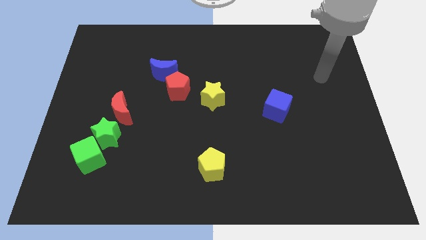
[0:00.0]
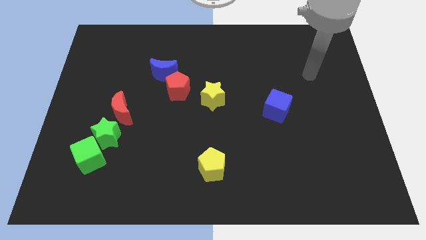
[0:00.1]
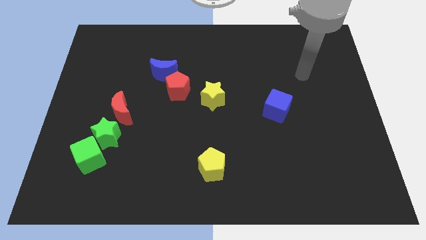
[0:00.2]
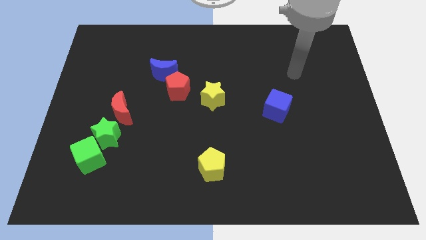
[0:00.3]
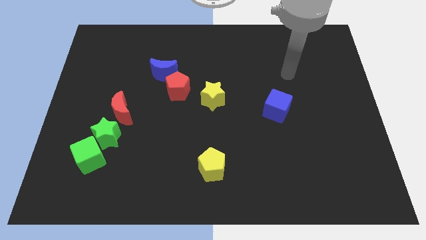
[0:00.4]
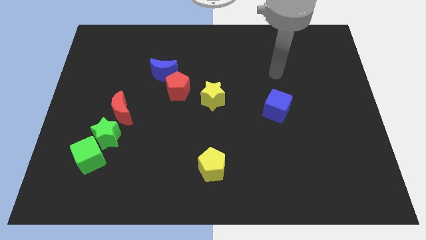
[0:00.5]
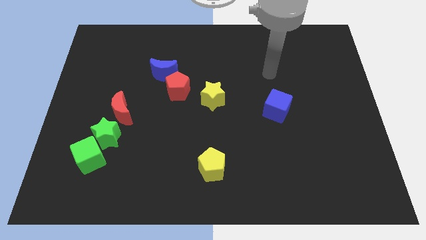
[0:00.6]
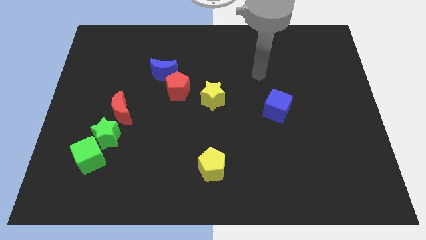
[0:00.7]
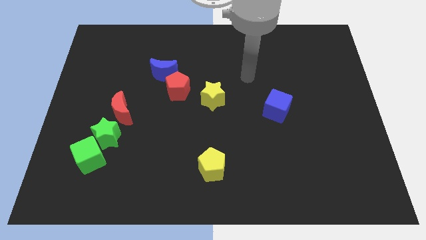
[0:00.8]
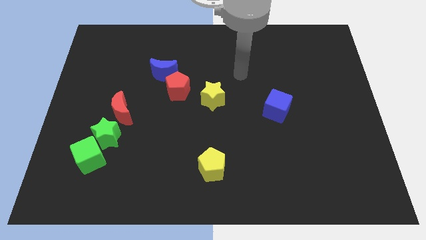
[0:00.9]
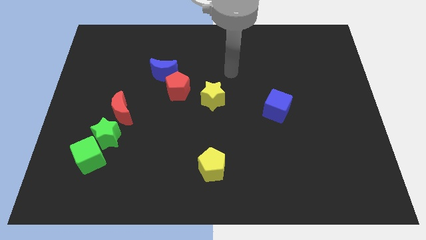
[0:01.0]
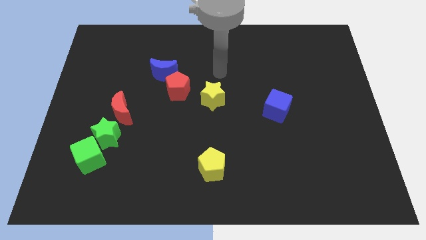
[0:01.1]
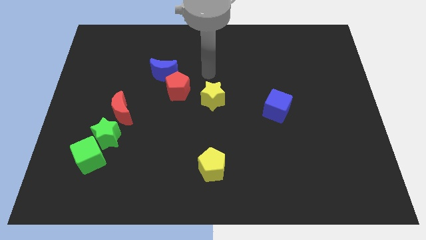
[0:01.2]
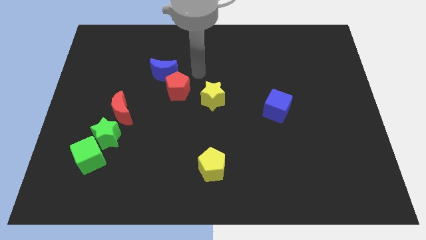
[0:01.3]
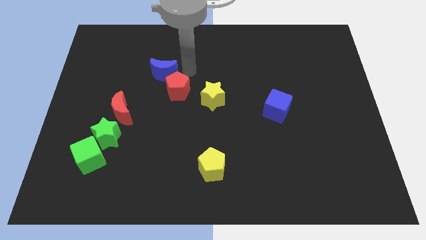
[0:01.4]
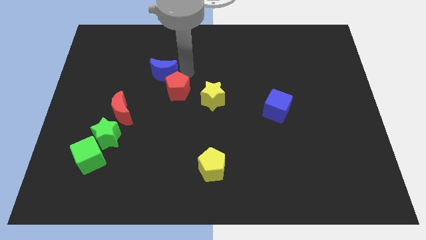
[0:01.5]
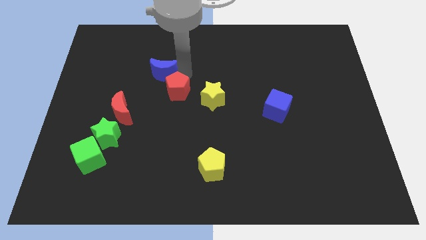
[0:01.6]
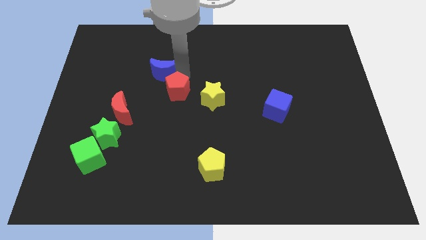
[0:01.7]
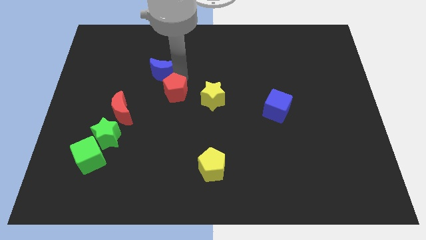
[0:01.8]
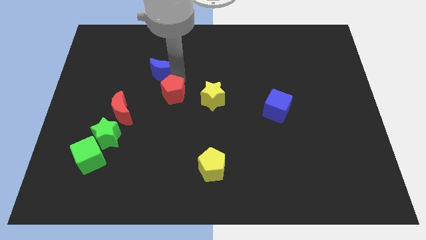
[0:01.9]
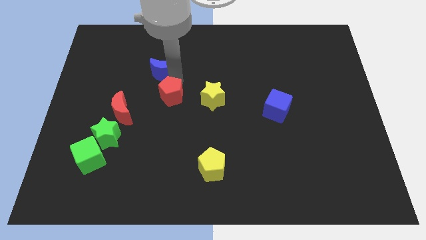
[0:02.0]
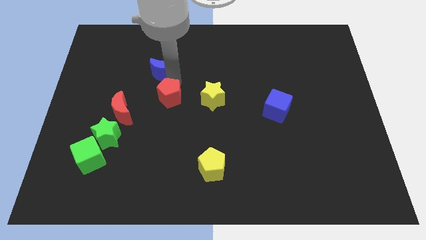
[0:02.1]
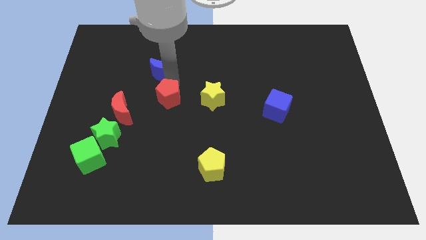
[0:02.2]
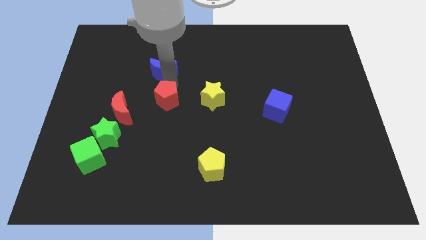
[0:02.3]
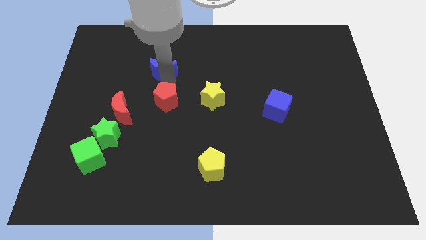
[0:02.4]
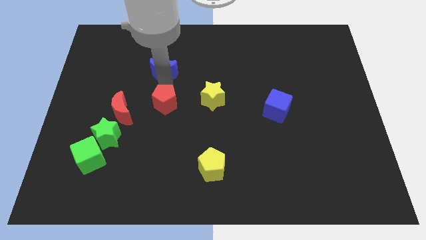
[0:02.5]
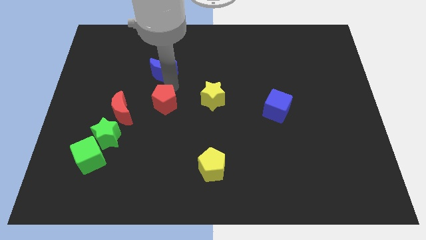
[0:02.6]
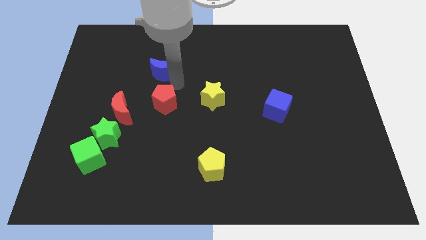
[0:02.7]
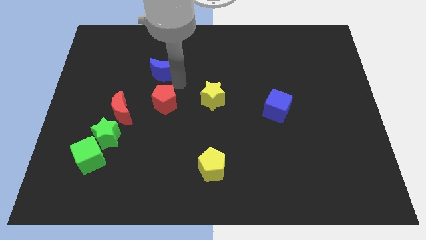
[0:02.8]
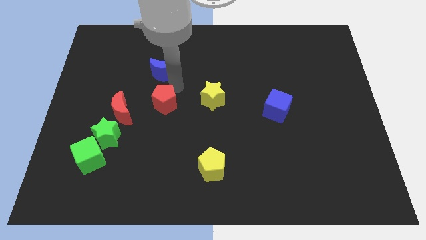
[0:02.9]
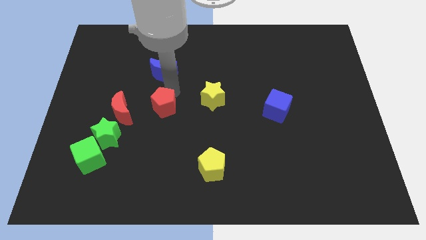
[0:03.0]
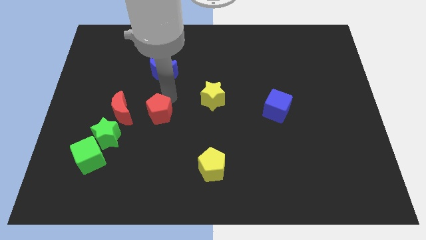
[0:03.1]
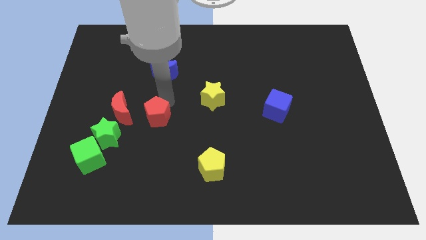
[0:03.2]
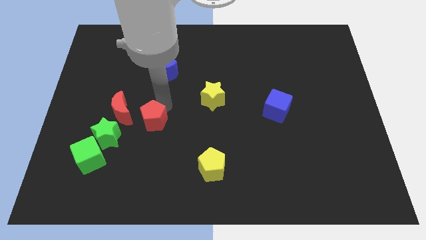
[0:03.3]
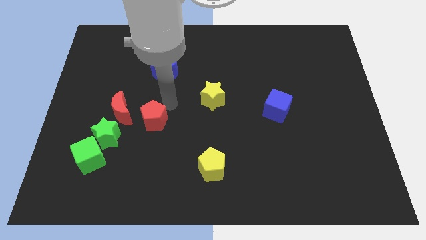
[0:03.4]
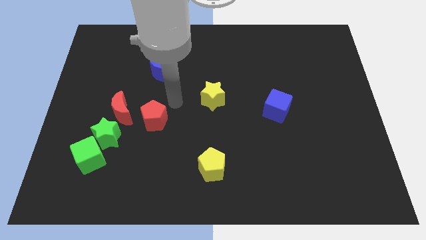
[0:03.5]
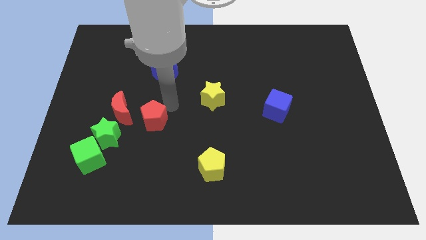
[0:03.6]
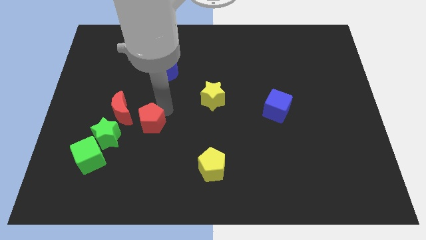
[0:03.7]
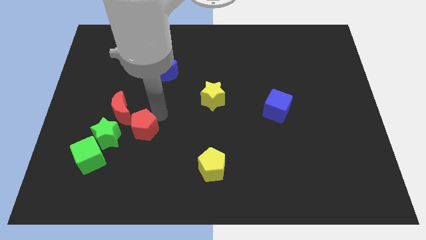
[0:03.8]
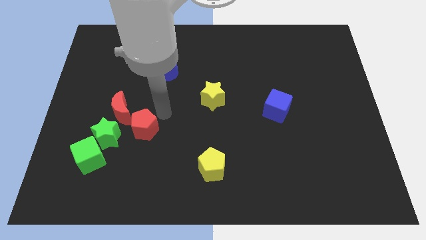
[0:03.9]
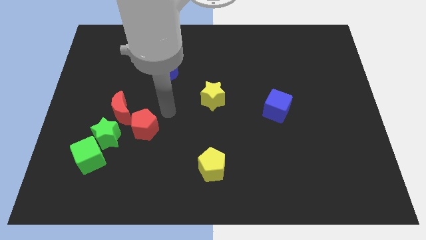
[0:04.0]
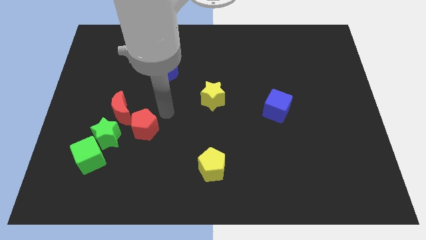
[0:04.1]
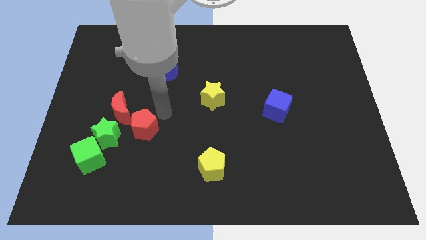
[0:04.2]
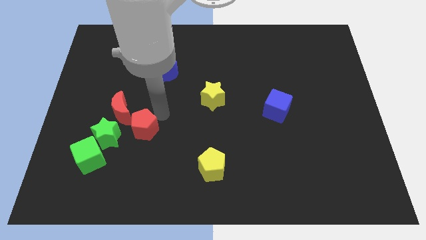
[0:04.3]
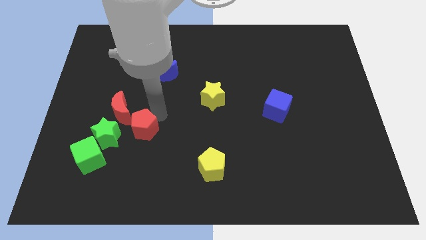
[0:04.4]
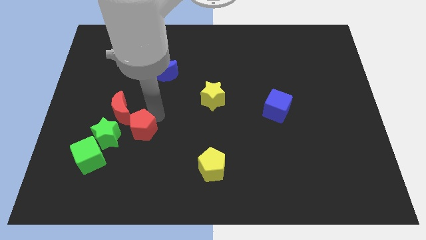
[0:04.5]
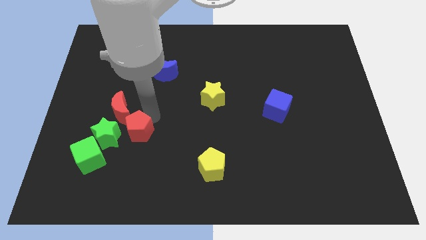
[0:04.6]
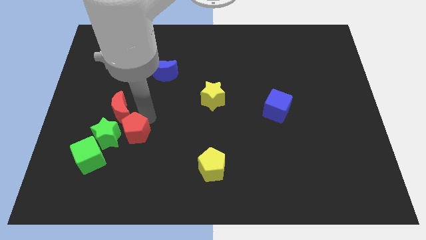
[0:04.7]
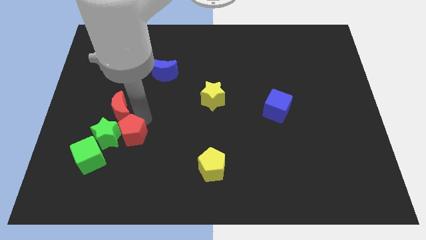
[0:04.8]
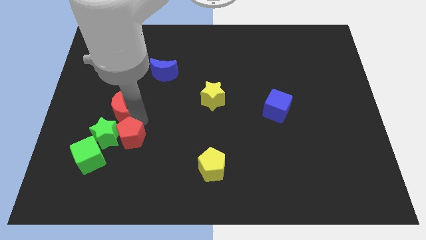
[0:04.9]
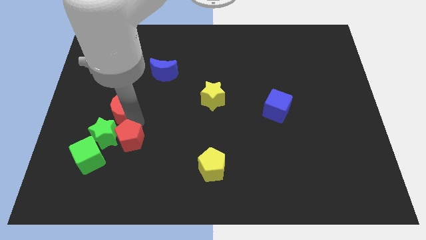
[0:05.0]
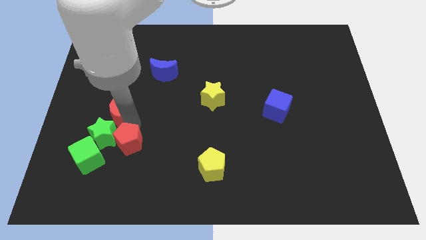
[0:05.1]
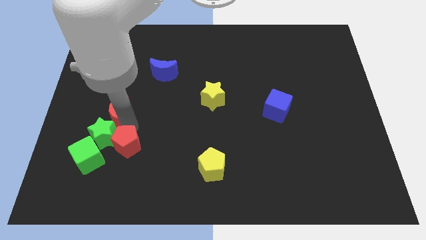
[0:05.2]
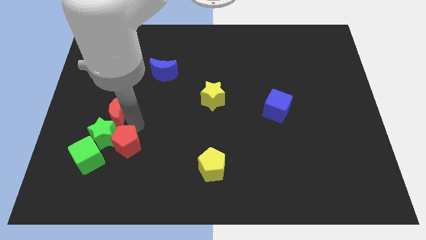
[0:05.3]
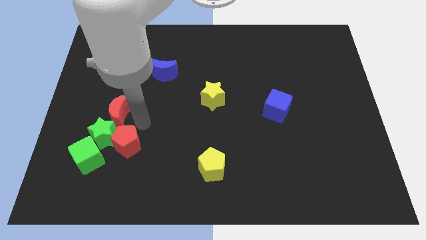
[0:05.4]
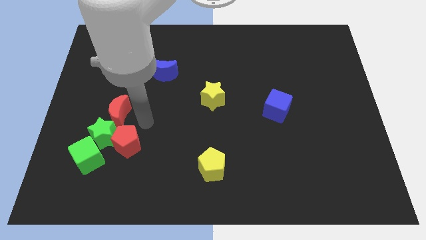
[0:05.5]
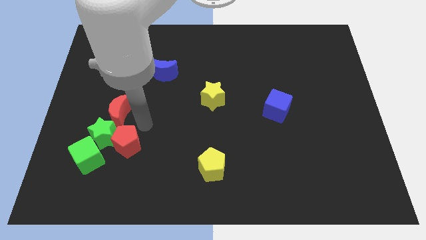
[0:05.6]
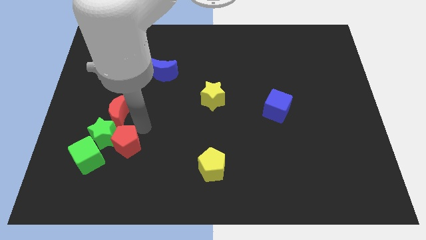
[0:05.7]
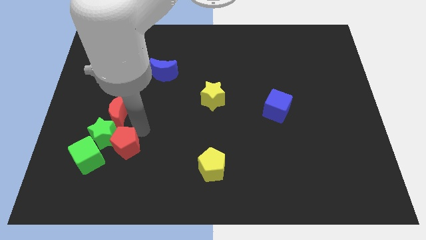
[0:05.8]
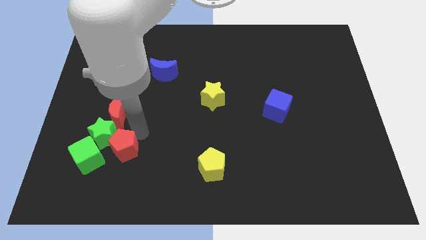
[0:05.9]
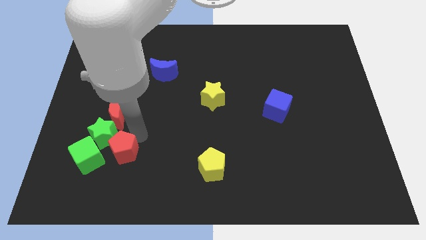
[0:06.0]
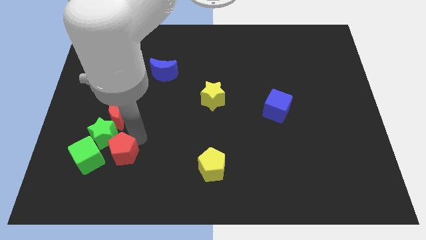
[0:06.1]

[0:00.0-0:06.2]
move the red pentagon to the bottom side of the green star

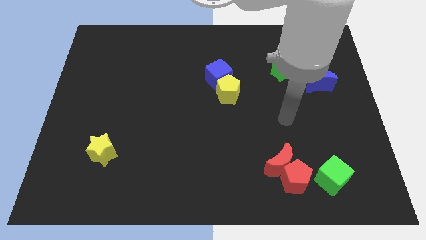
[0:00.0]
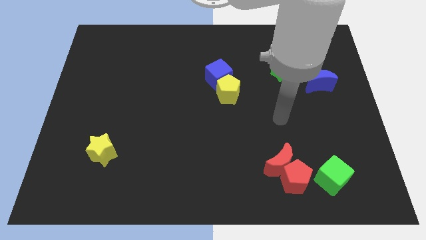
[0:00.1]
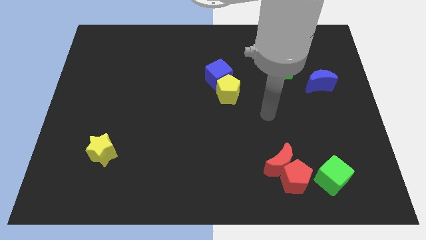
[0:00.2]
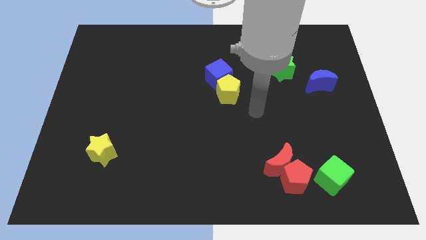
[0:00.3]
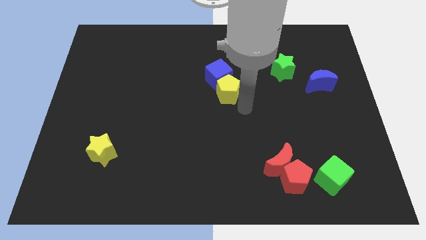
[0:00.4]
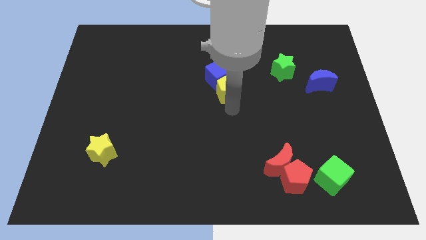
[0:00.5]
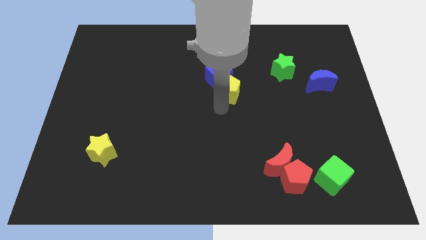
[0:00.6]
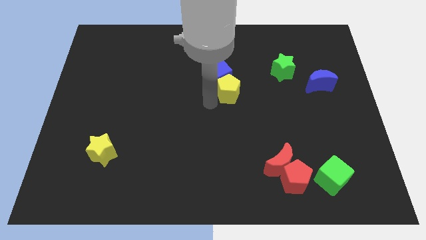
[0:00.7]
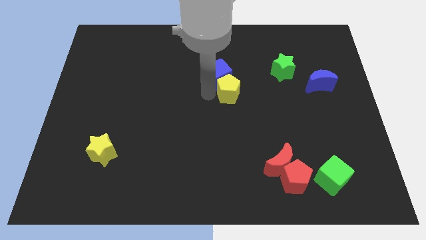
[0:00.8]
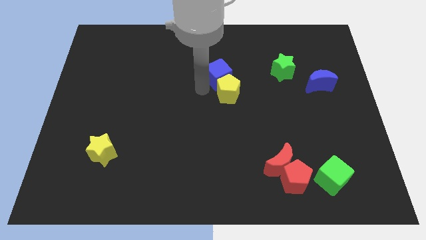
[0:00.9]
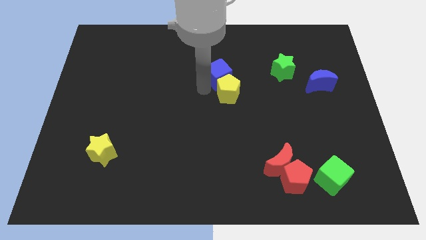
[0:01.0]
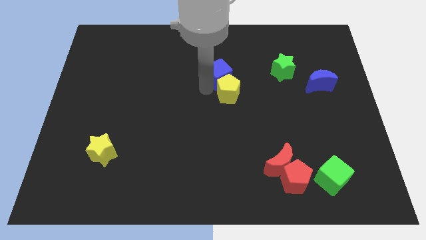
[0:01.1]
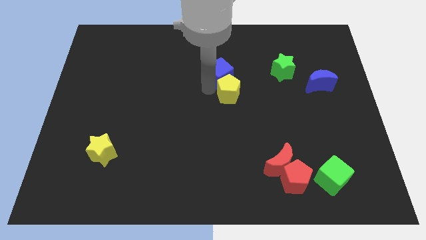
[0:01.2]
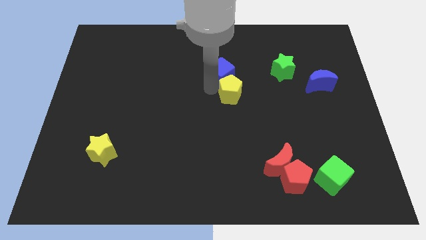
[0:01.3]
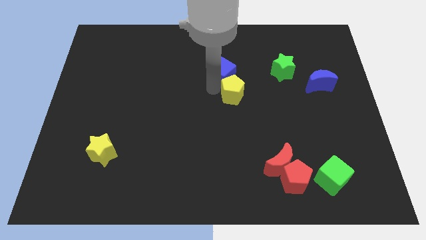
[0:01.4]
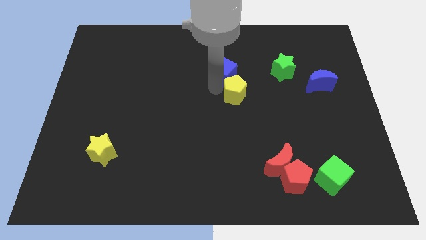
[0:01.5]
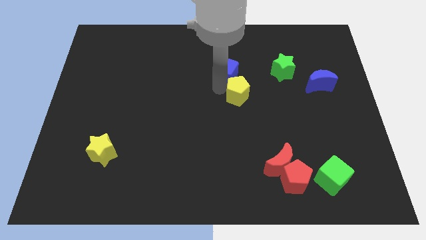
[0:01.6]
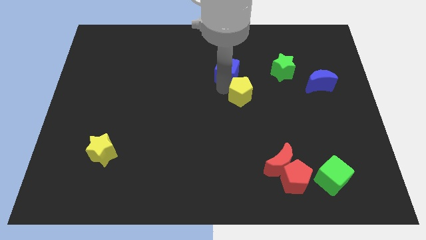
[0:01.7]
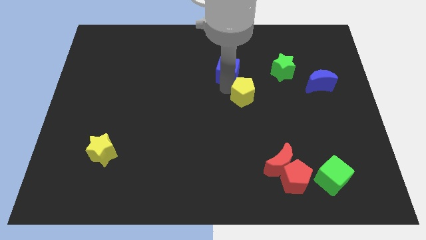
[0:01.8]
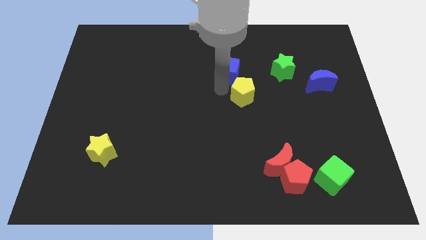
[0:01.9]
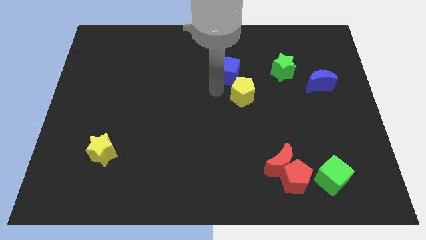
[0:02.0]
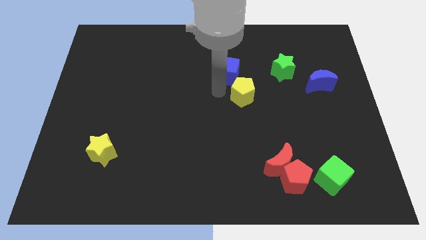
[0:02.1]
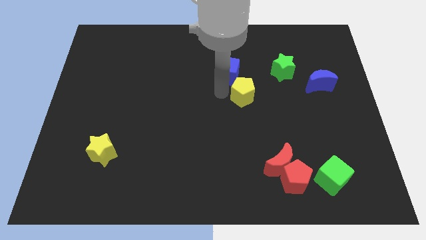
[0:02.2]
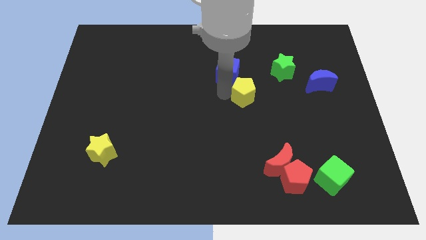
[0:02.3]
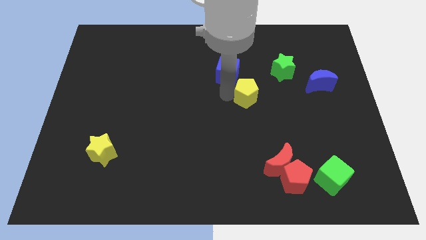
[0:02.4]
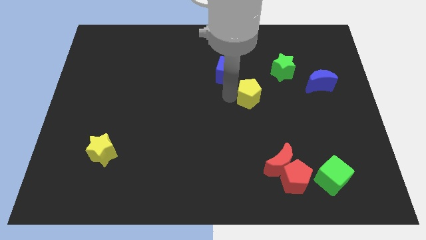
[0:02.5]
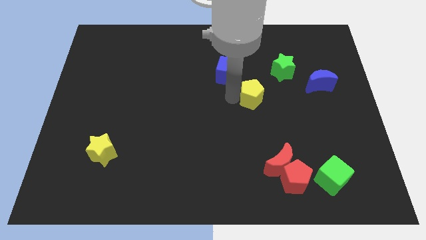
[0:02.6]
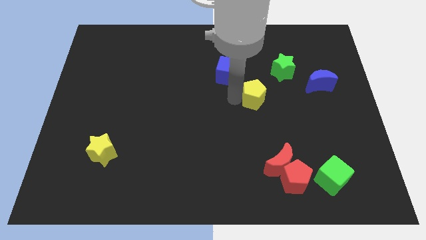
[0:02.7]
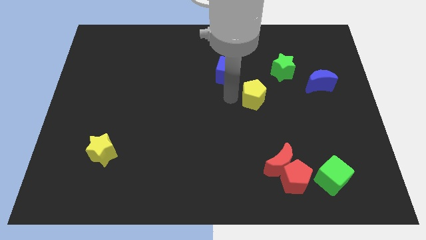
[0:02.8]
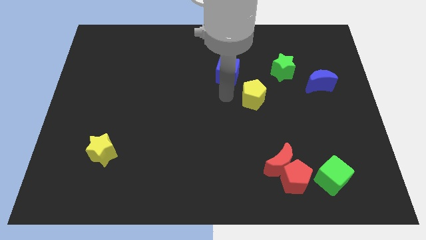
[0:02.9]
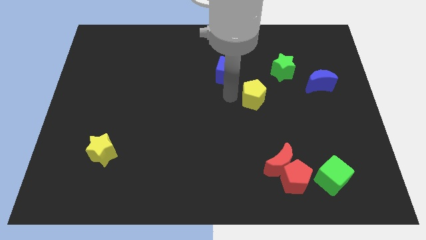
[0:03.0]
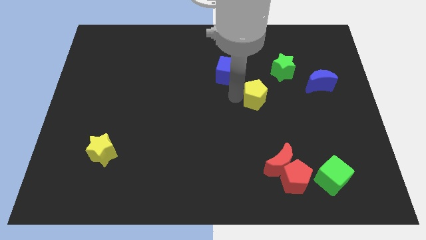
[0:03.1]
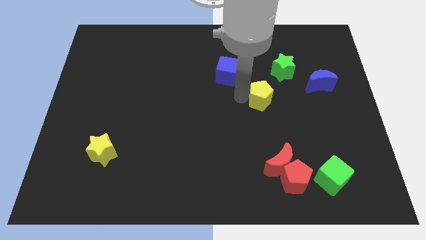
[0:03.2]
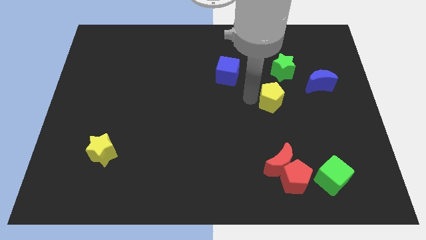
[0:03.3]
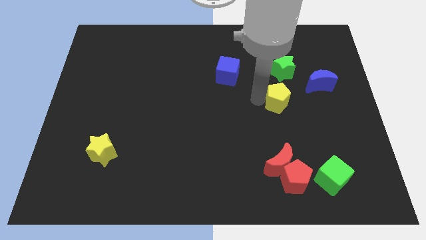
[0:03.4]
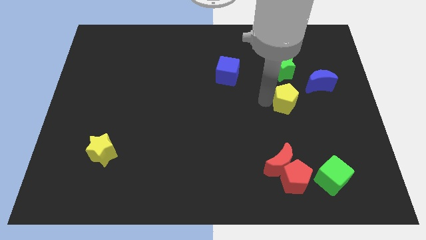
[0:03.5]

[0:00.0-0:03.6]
move the yellow pentagon diagonally down and to the left of the blue moon
